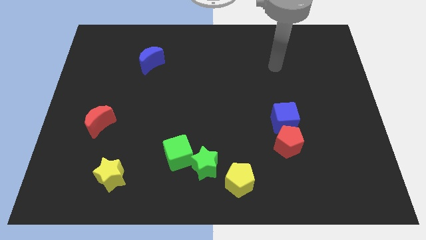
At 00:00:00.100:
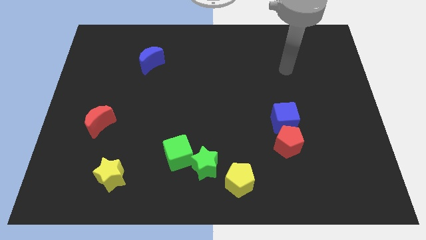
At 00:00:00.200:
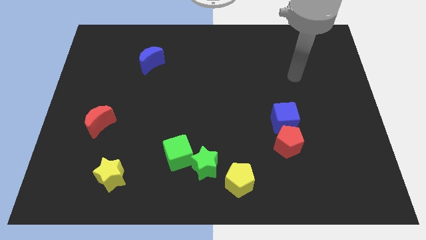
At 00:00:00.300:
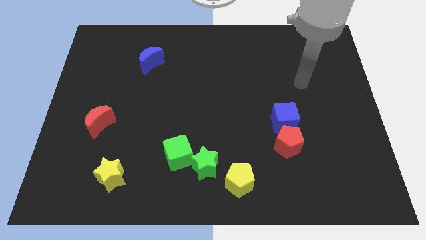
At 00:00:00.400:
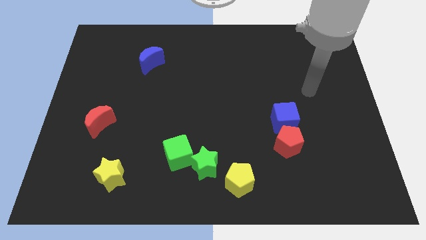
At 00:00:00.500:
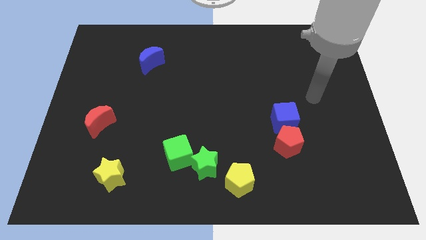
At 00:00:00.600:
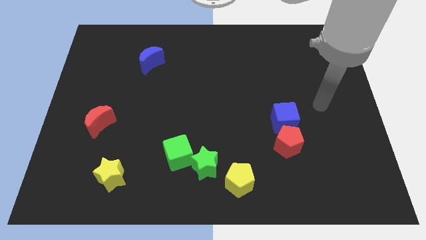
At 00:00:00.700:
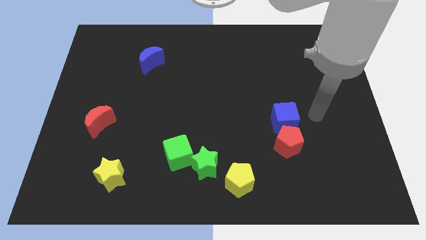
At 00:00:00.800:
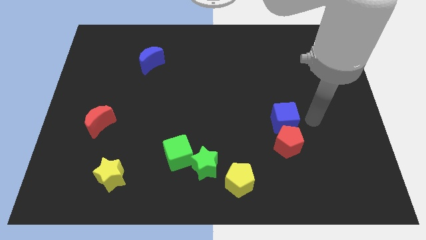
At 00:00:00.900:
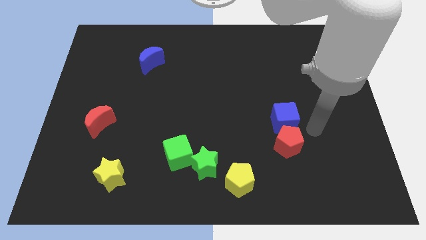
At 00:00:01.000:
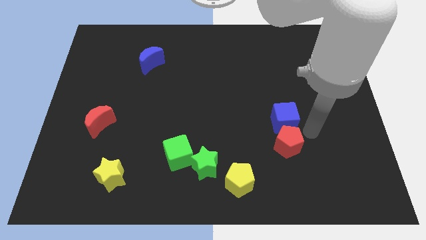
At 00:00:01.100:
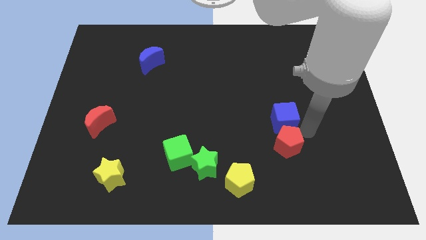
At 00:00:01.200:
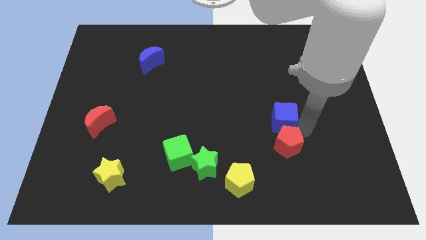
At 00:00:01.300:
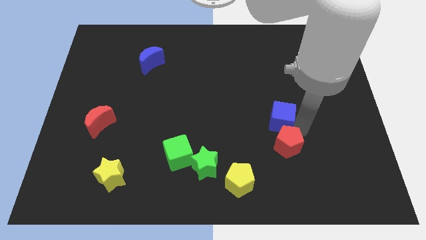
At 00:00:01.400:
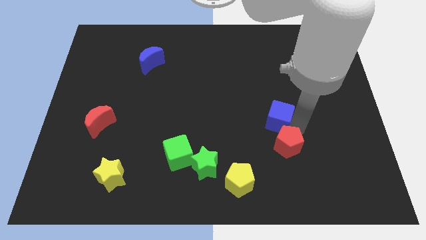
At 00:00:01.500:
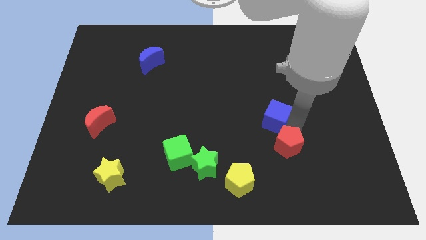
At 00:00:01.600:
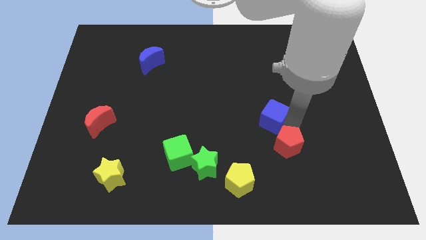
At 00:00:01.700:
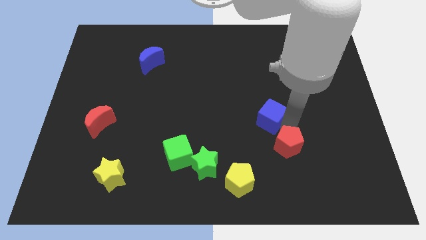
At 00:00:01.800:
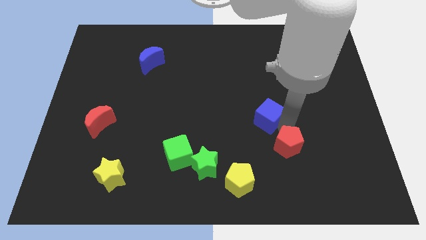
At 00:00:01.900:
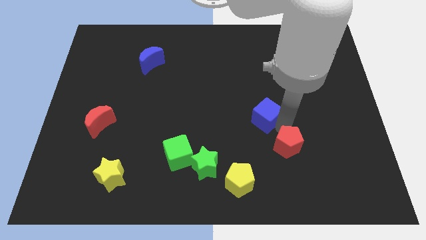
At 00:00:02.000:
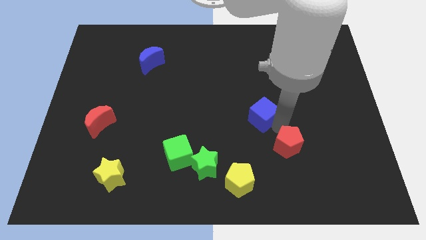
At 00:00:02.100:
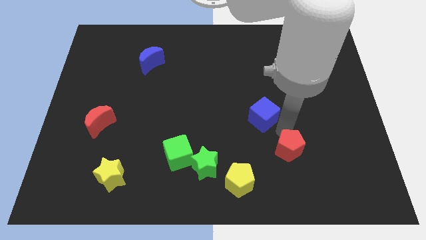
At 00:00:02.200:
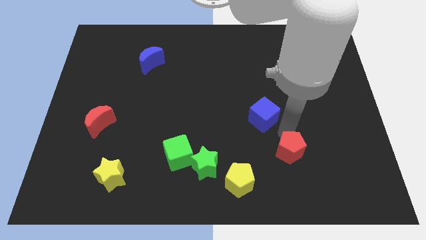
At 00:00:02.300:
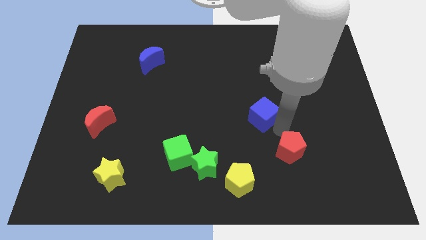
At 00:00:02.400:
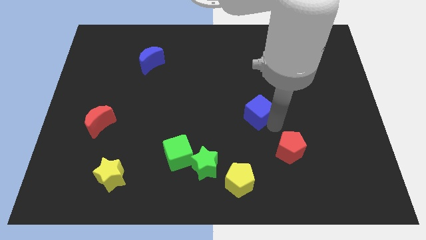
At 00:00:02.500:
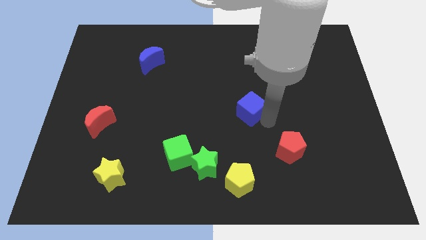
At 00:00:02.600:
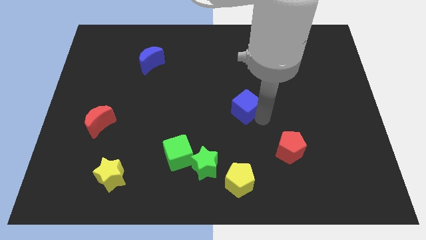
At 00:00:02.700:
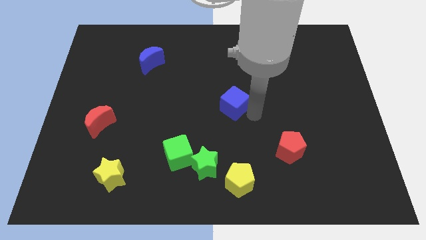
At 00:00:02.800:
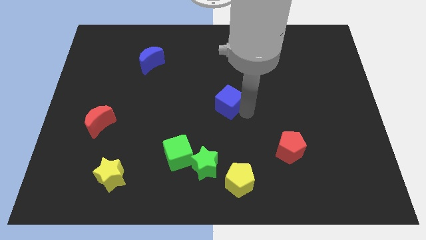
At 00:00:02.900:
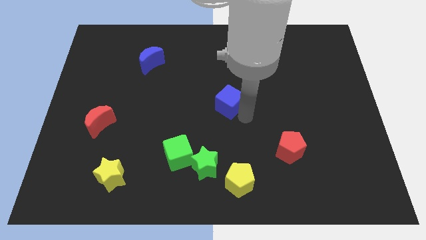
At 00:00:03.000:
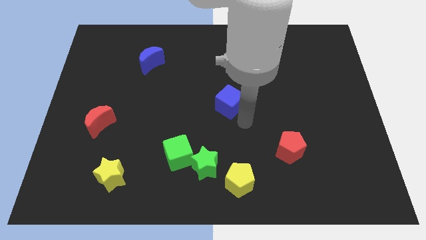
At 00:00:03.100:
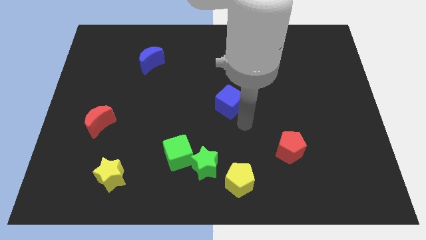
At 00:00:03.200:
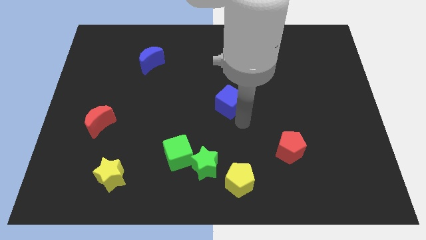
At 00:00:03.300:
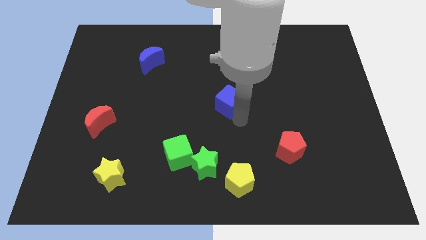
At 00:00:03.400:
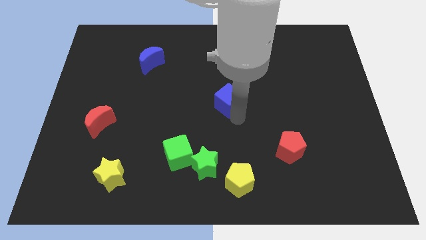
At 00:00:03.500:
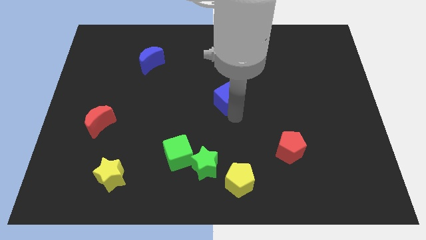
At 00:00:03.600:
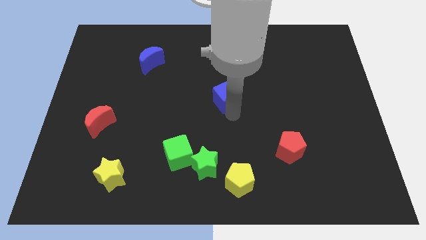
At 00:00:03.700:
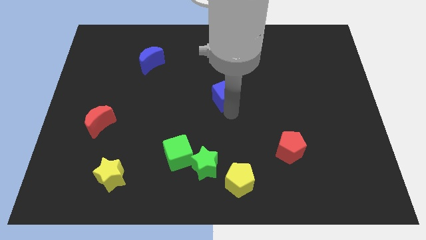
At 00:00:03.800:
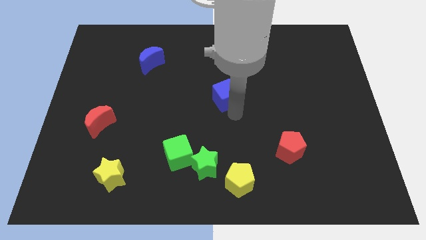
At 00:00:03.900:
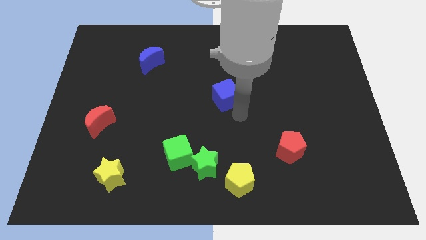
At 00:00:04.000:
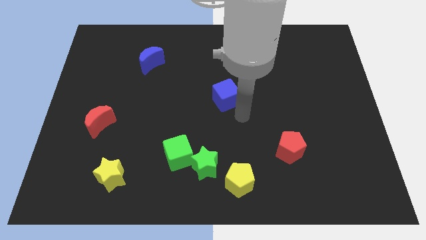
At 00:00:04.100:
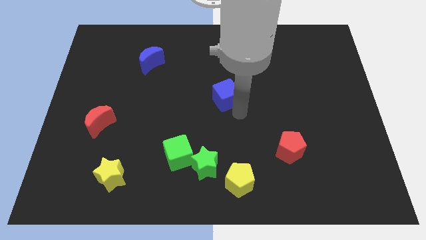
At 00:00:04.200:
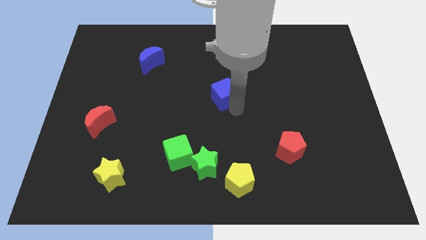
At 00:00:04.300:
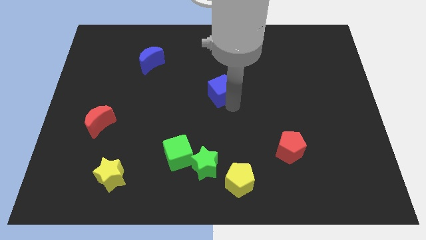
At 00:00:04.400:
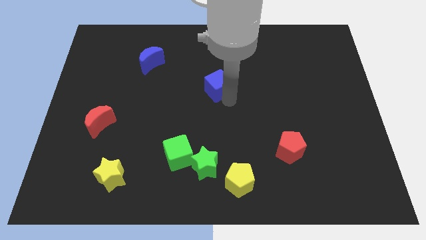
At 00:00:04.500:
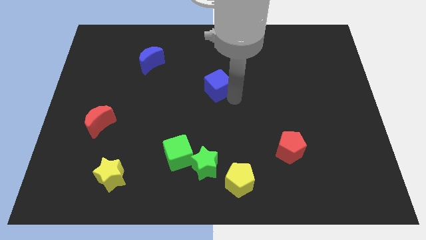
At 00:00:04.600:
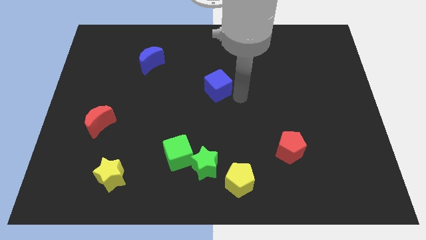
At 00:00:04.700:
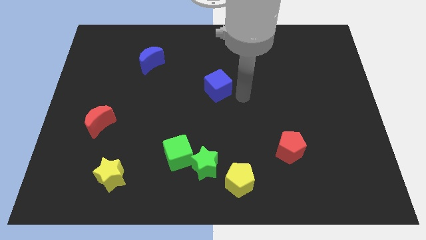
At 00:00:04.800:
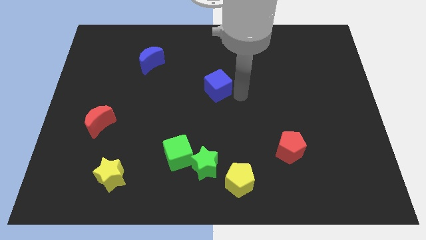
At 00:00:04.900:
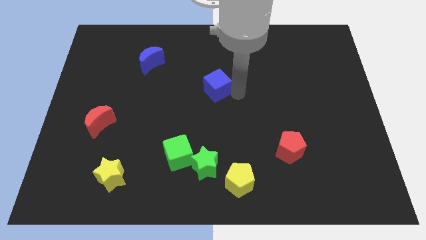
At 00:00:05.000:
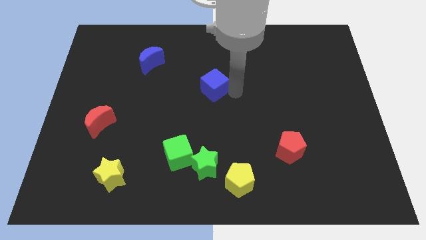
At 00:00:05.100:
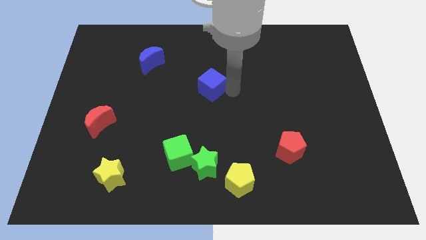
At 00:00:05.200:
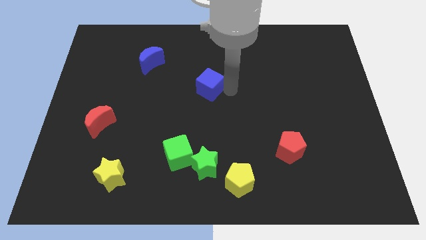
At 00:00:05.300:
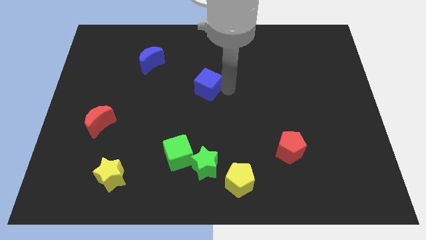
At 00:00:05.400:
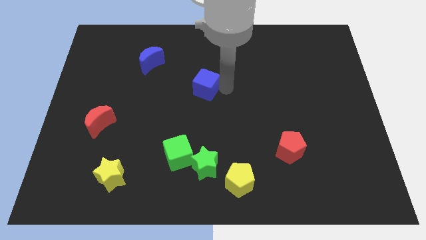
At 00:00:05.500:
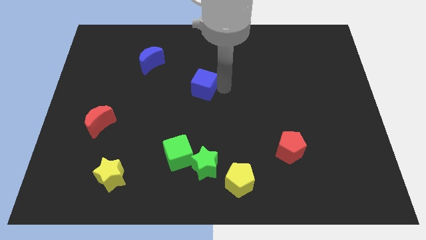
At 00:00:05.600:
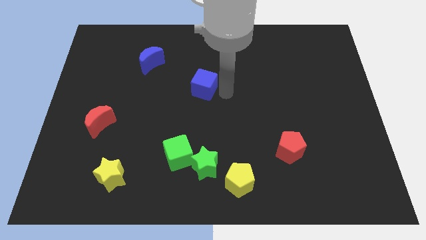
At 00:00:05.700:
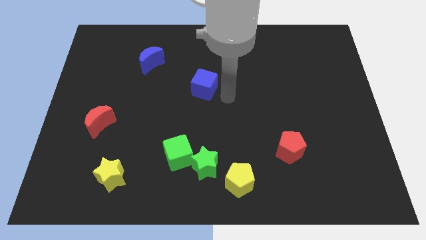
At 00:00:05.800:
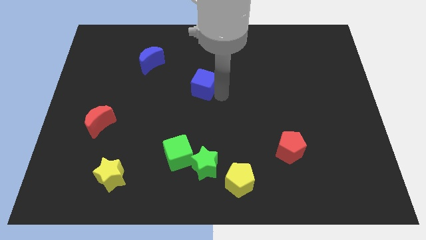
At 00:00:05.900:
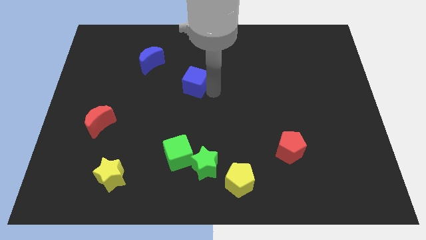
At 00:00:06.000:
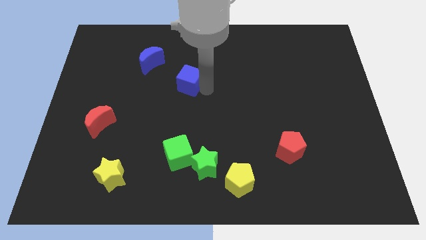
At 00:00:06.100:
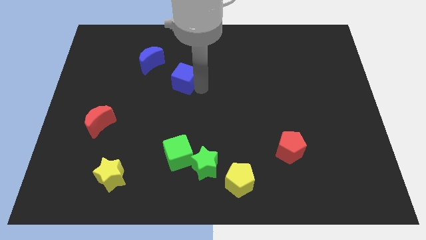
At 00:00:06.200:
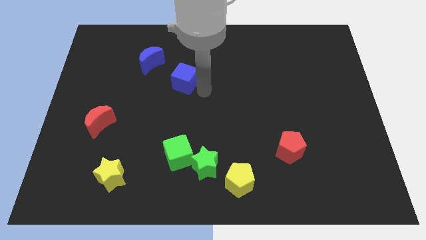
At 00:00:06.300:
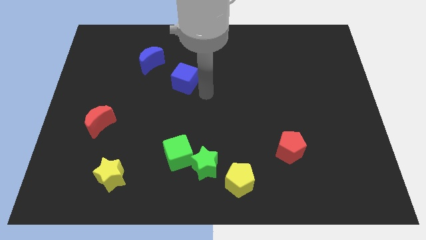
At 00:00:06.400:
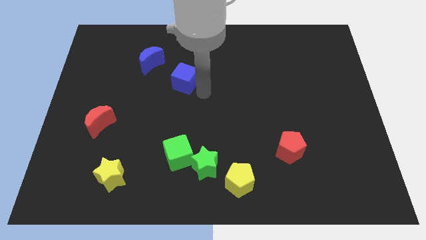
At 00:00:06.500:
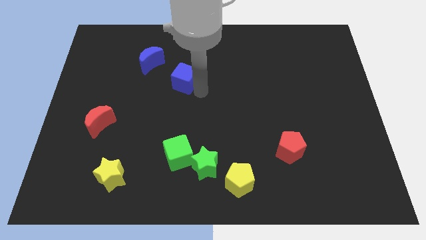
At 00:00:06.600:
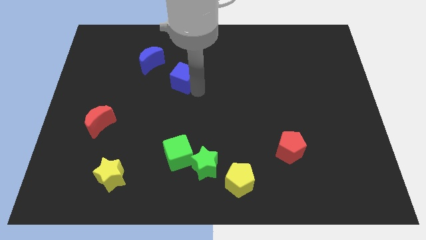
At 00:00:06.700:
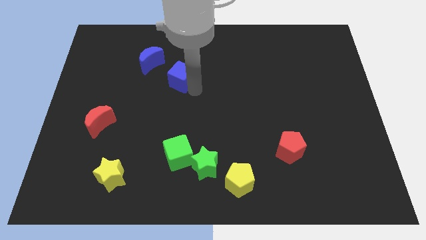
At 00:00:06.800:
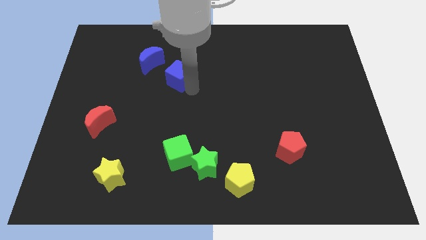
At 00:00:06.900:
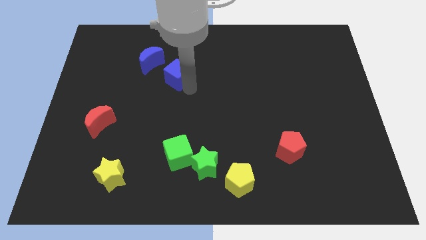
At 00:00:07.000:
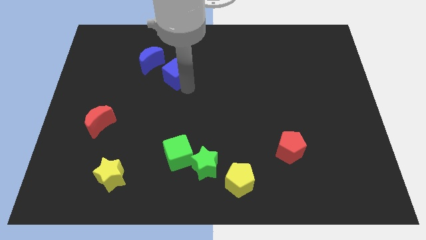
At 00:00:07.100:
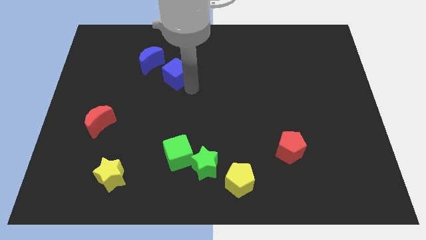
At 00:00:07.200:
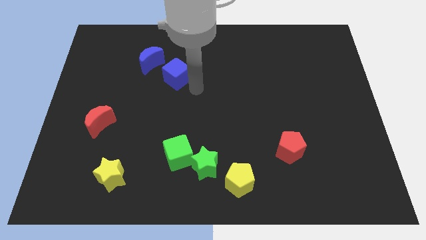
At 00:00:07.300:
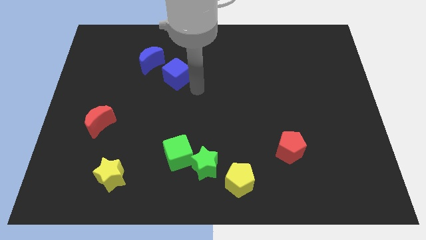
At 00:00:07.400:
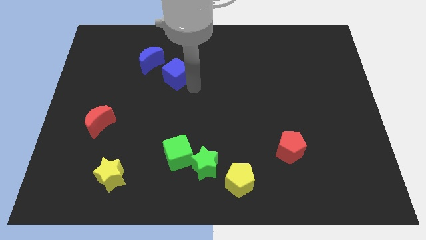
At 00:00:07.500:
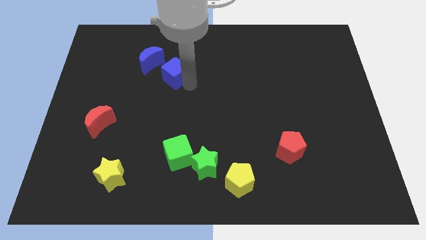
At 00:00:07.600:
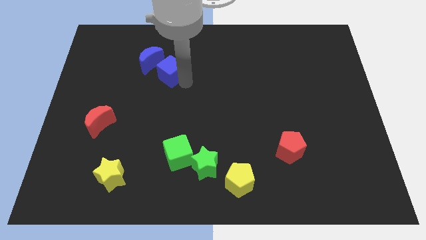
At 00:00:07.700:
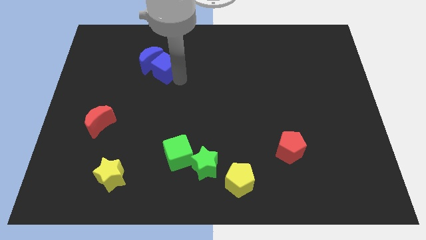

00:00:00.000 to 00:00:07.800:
push the blue cube next to the blue moon
